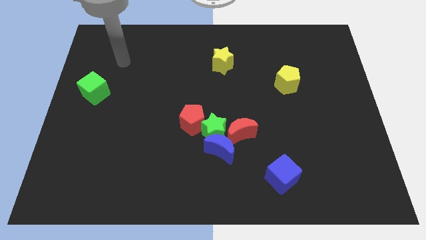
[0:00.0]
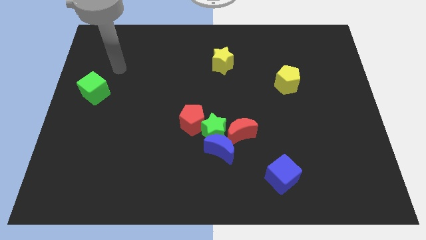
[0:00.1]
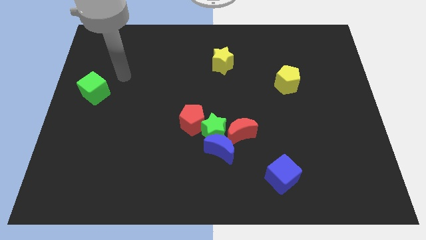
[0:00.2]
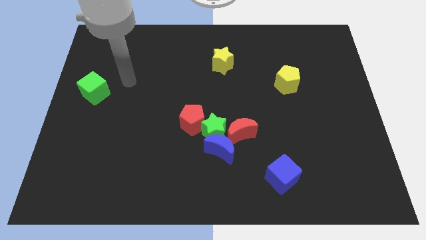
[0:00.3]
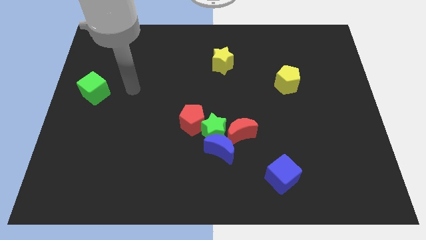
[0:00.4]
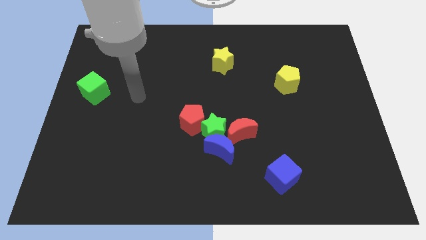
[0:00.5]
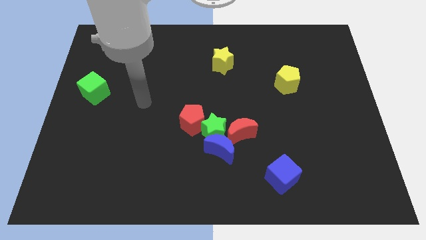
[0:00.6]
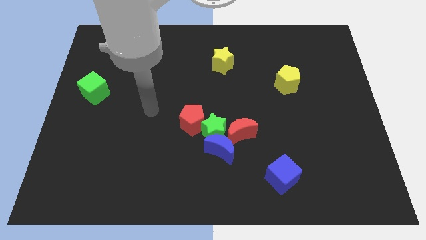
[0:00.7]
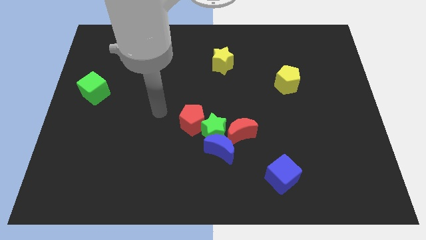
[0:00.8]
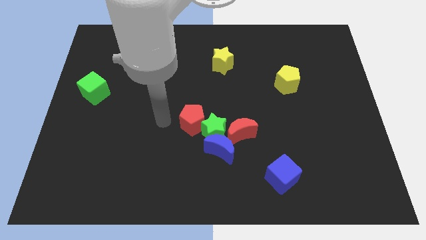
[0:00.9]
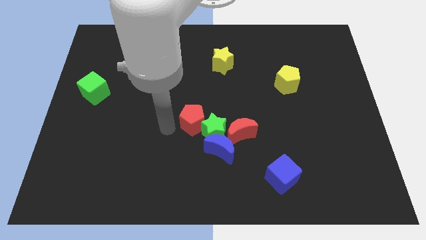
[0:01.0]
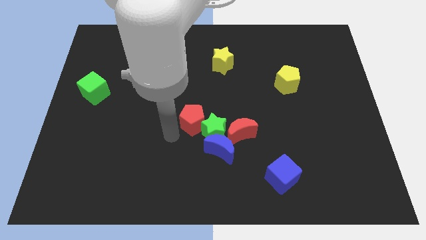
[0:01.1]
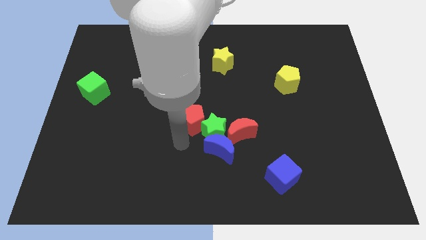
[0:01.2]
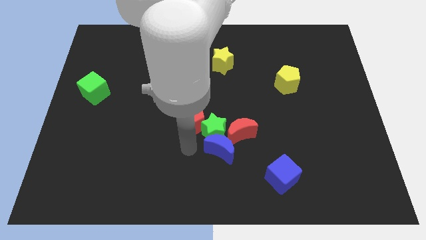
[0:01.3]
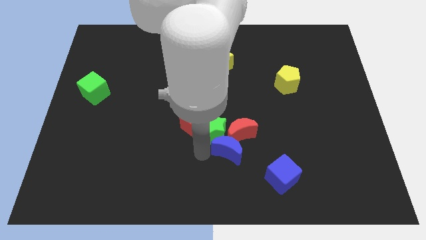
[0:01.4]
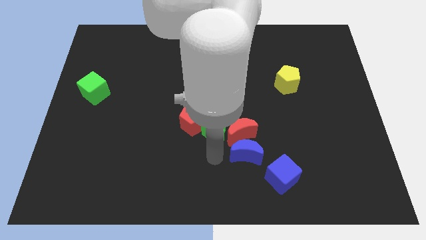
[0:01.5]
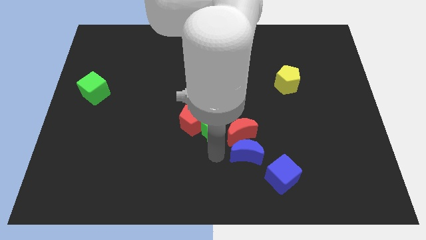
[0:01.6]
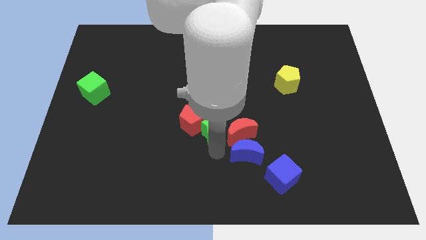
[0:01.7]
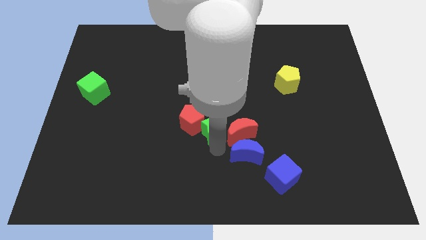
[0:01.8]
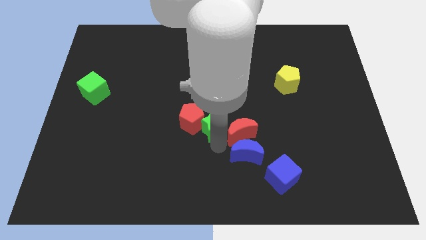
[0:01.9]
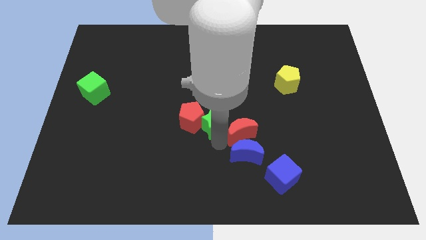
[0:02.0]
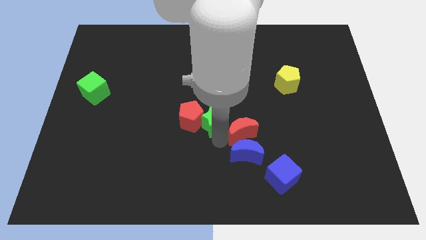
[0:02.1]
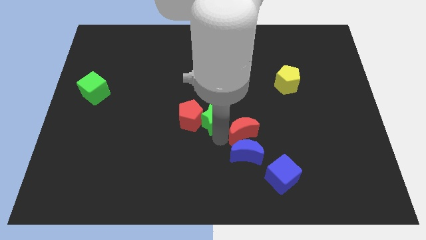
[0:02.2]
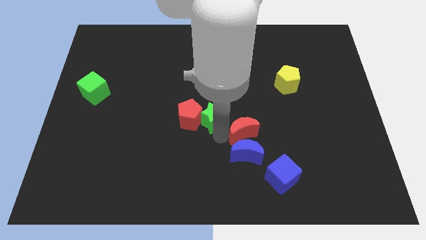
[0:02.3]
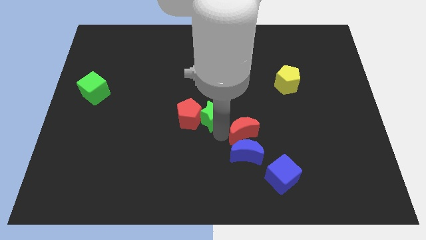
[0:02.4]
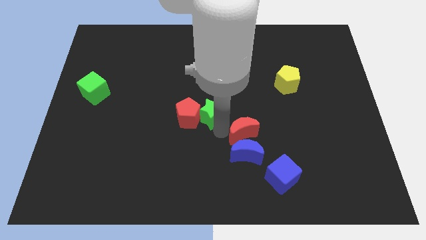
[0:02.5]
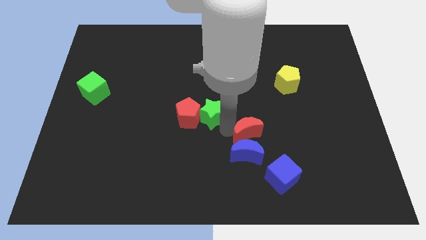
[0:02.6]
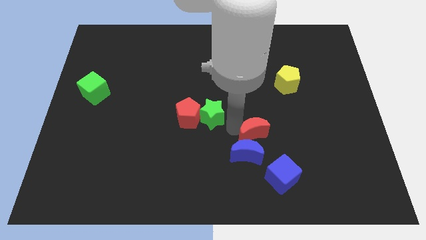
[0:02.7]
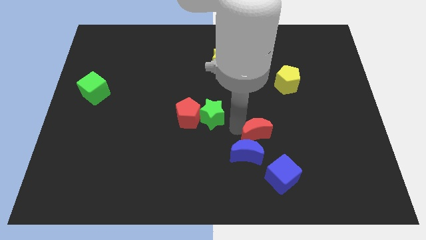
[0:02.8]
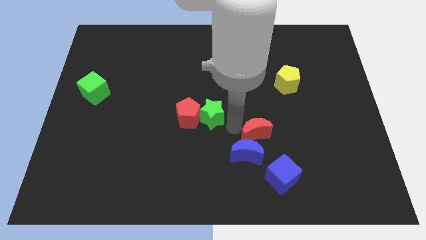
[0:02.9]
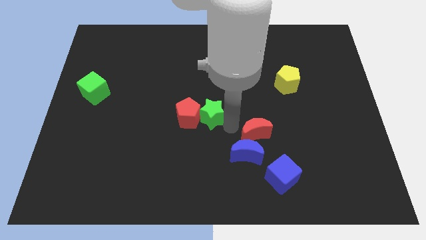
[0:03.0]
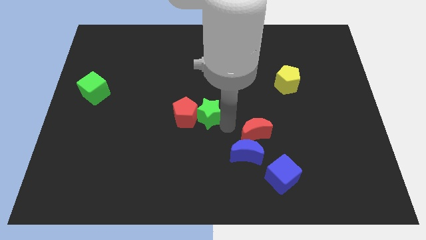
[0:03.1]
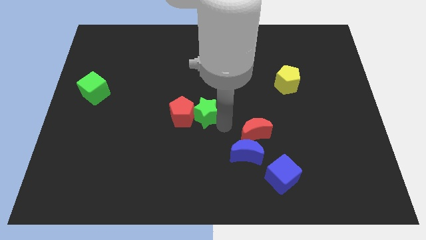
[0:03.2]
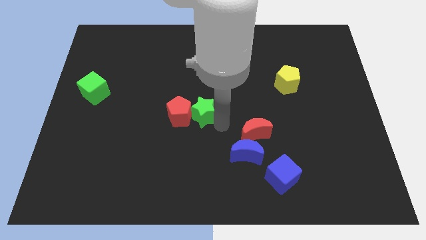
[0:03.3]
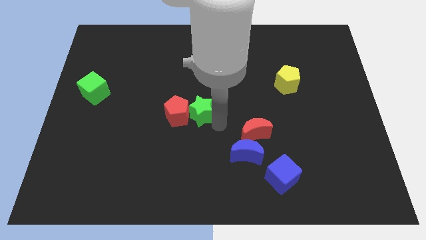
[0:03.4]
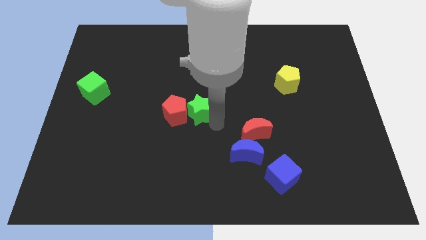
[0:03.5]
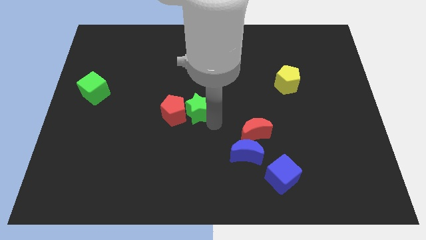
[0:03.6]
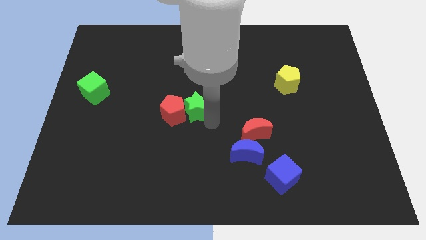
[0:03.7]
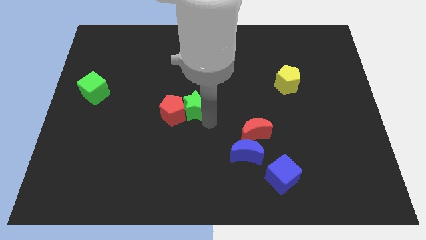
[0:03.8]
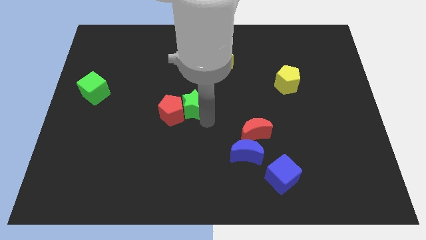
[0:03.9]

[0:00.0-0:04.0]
separate the green star from the group of blocks

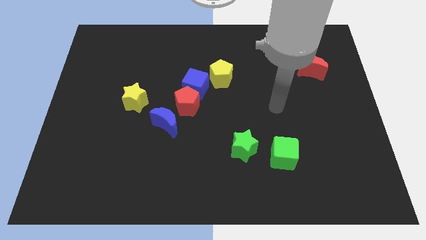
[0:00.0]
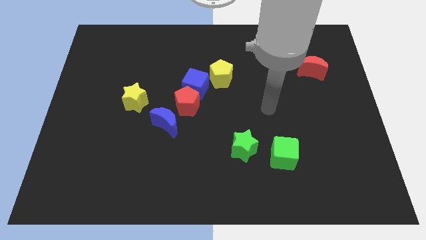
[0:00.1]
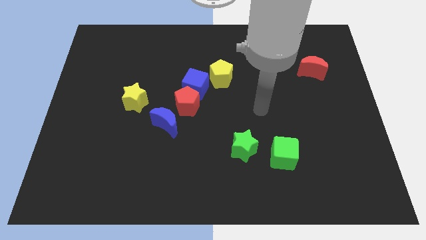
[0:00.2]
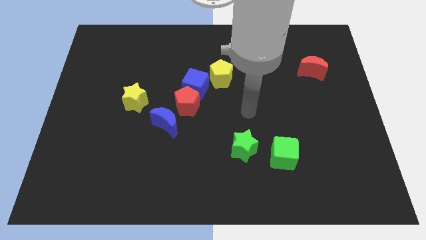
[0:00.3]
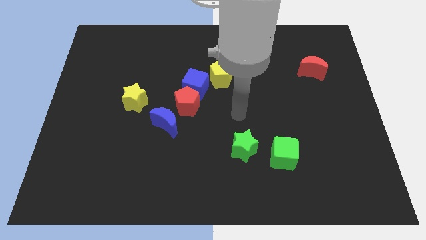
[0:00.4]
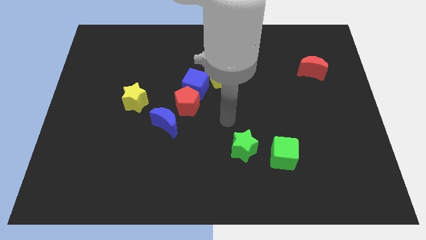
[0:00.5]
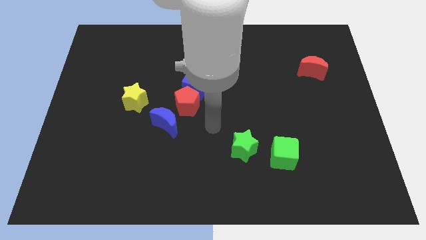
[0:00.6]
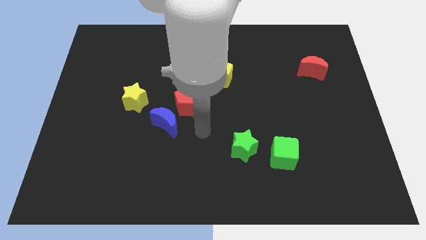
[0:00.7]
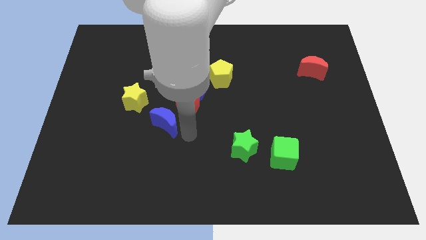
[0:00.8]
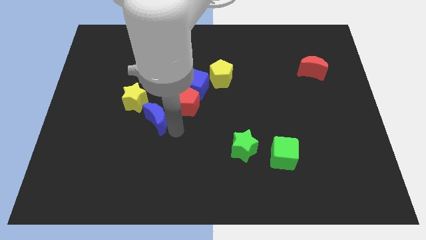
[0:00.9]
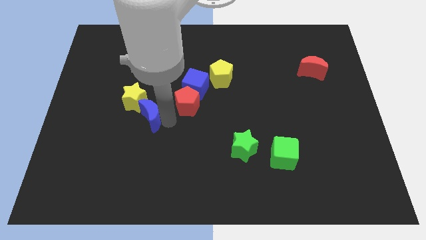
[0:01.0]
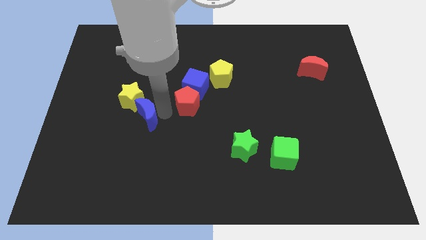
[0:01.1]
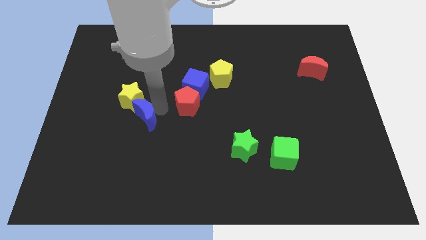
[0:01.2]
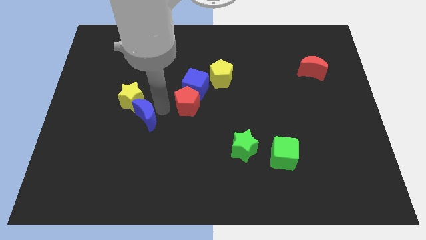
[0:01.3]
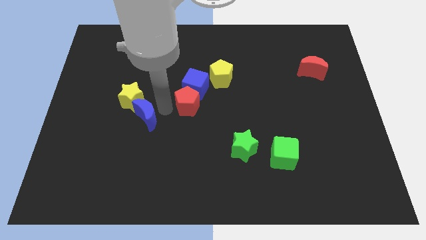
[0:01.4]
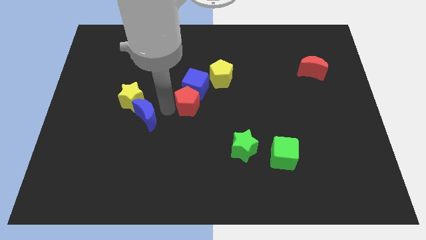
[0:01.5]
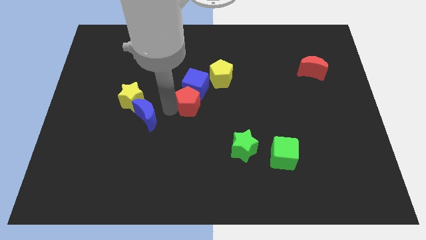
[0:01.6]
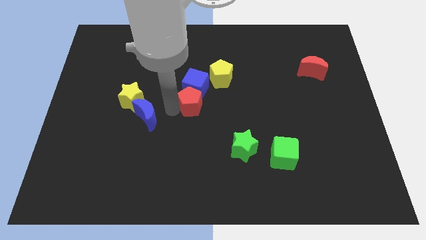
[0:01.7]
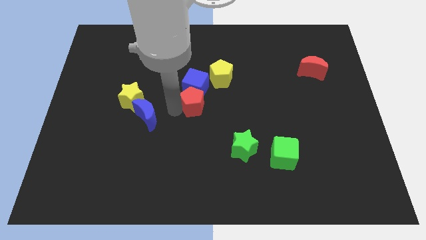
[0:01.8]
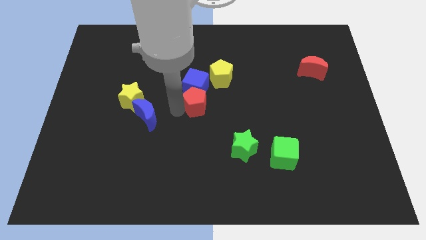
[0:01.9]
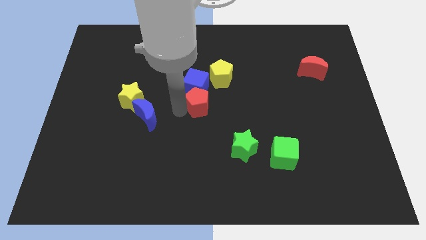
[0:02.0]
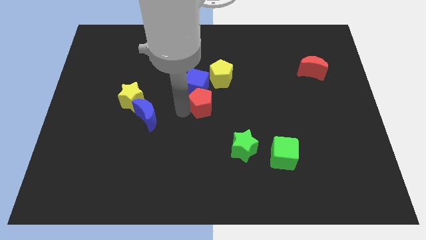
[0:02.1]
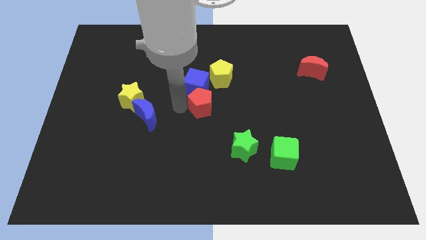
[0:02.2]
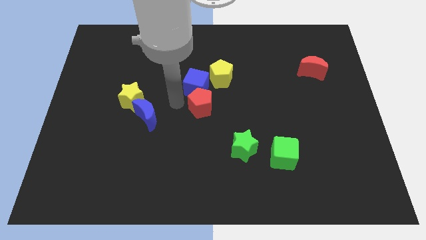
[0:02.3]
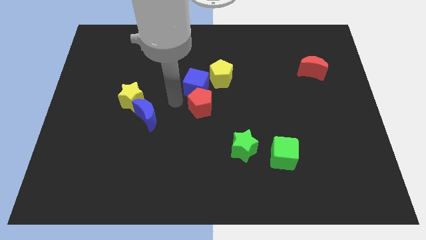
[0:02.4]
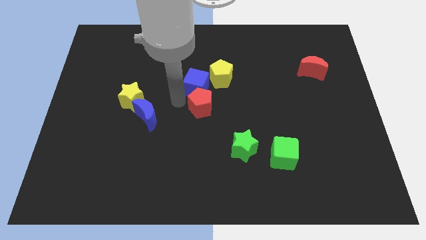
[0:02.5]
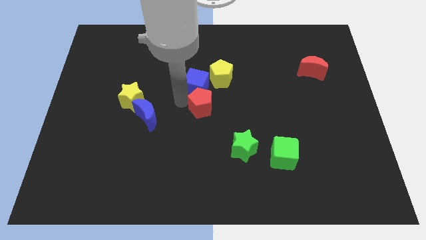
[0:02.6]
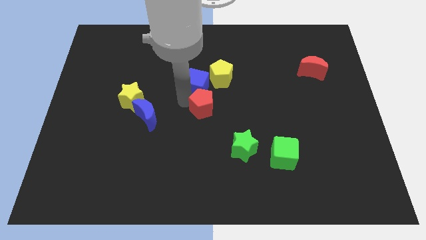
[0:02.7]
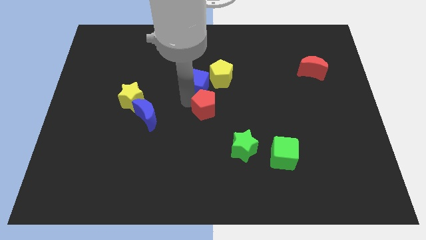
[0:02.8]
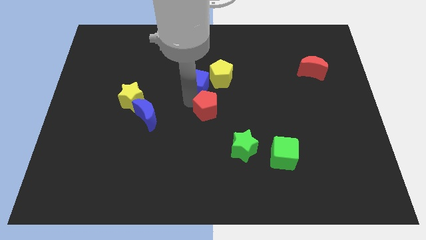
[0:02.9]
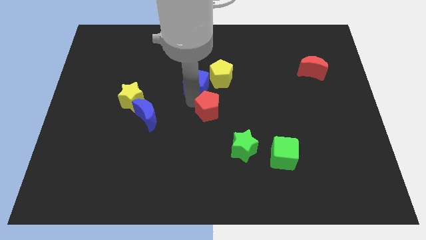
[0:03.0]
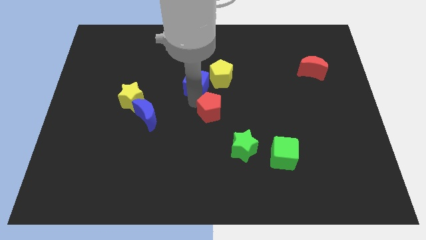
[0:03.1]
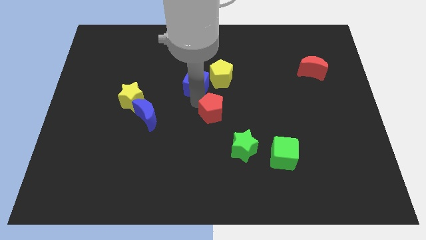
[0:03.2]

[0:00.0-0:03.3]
move the red pentagon away from the blue cube and blue moon

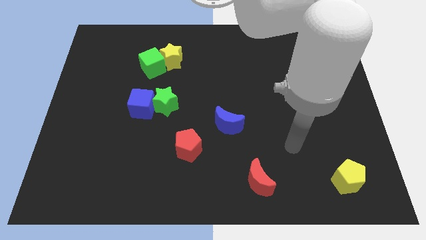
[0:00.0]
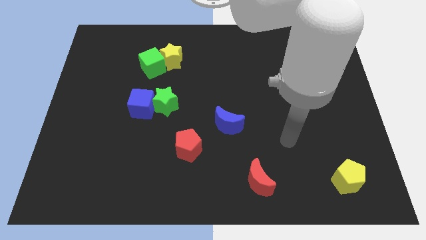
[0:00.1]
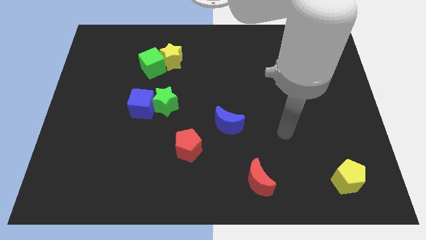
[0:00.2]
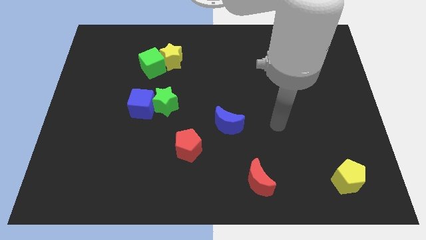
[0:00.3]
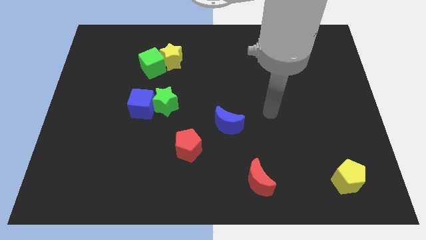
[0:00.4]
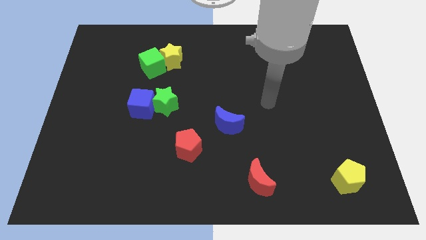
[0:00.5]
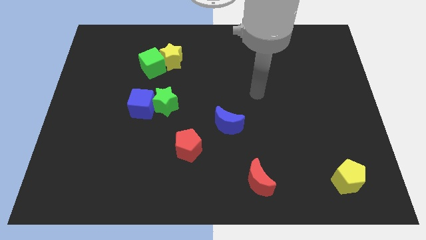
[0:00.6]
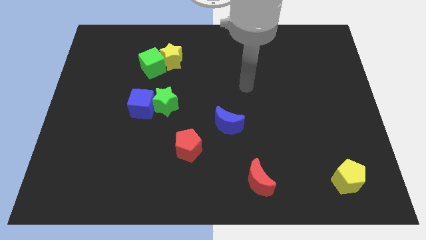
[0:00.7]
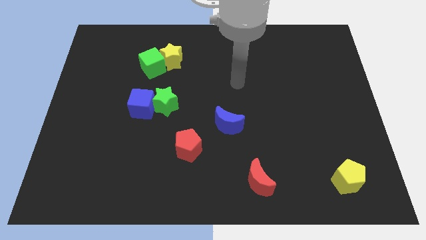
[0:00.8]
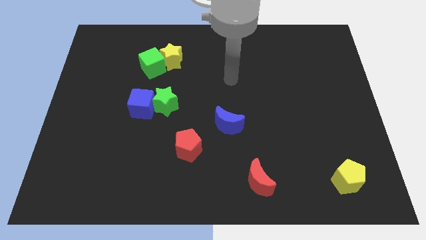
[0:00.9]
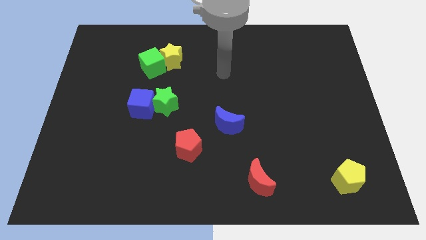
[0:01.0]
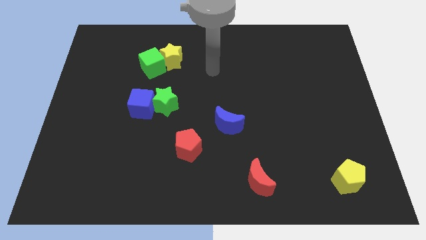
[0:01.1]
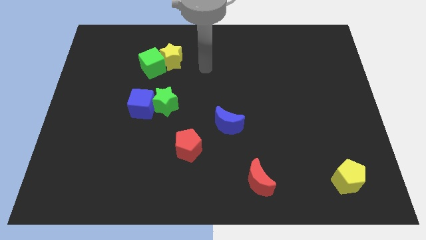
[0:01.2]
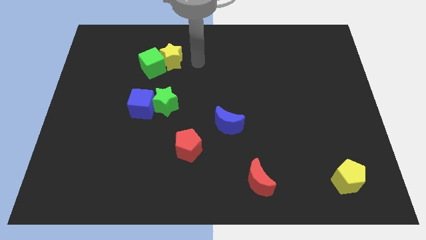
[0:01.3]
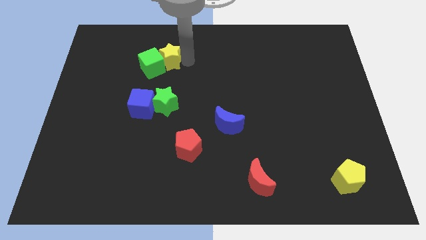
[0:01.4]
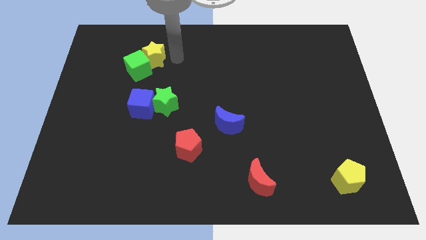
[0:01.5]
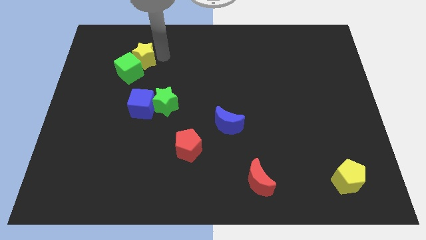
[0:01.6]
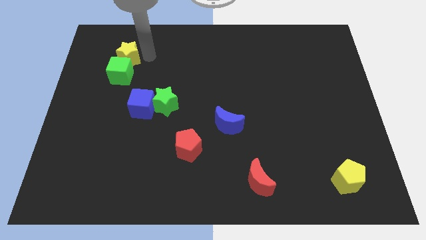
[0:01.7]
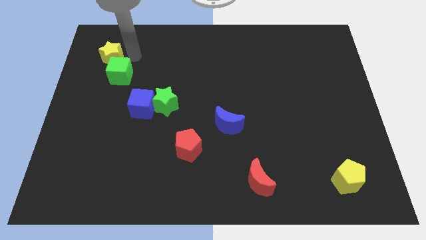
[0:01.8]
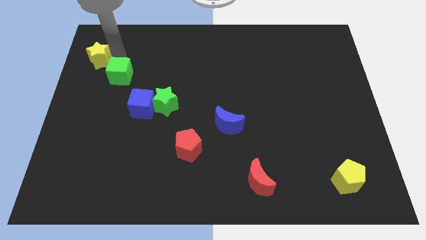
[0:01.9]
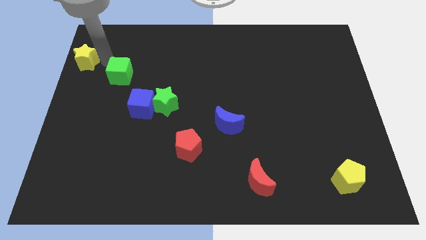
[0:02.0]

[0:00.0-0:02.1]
move the green cube away from the yellow star
